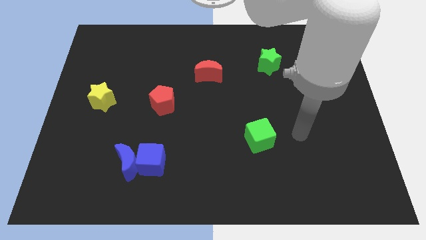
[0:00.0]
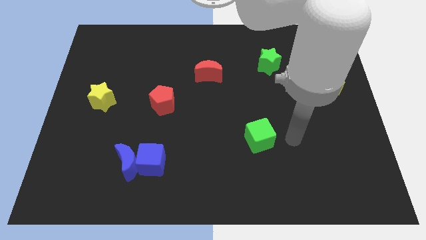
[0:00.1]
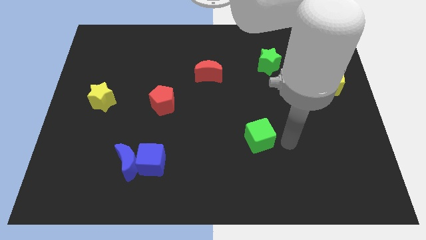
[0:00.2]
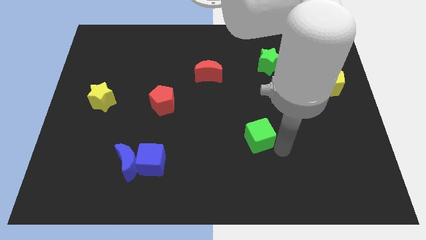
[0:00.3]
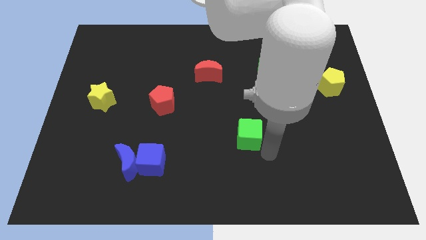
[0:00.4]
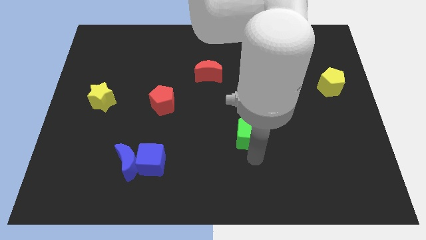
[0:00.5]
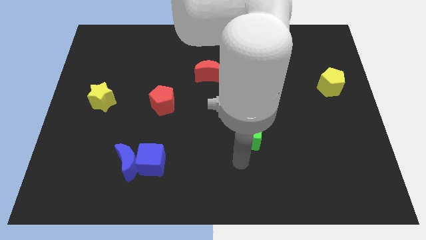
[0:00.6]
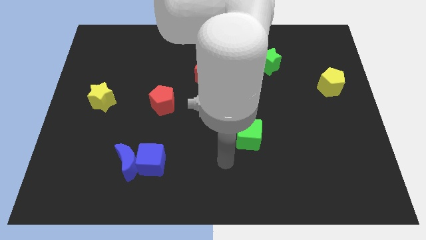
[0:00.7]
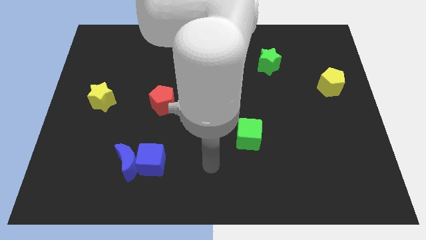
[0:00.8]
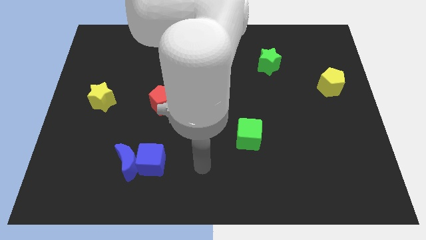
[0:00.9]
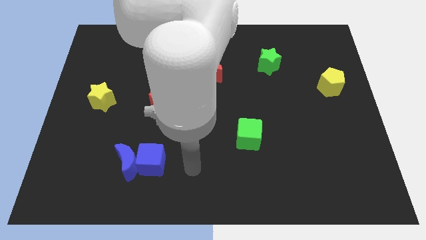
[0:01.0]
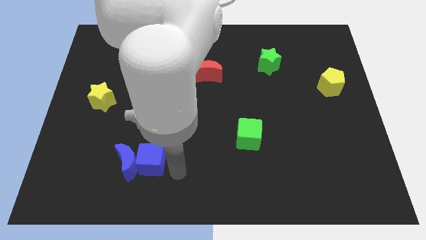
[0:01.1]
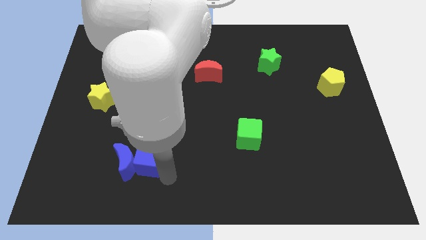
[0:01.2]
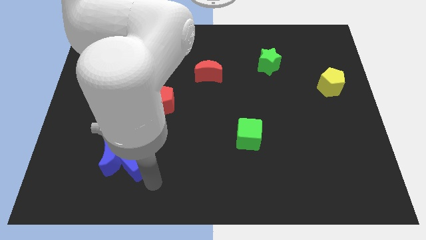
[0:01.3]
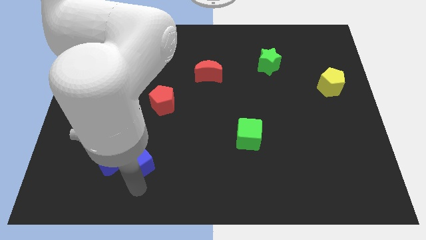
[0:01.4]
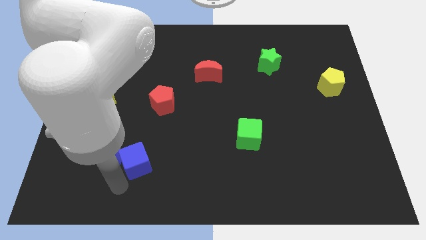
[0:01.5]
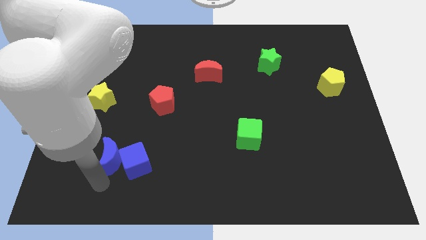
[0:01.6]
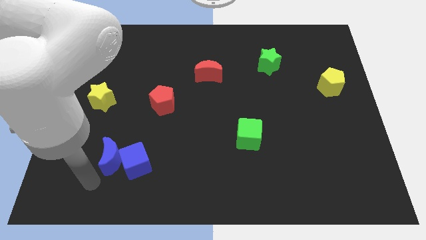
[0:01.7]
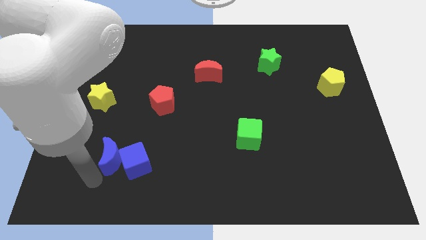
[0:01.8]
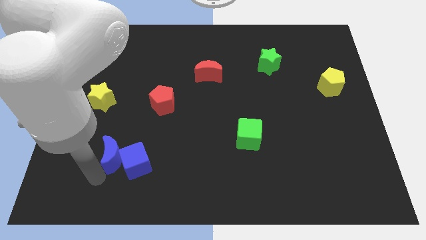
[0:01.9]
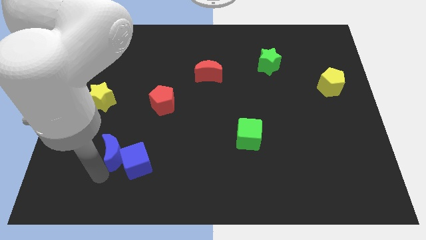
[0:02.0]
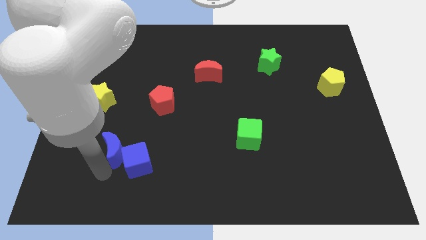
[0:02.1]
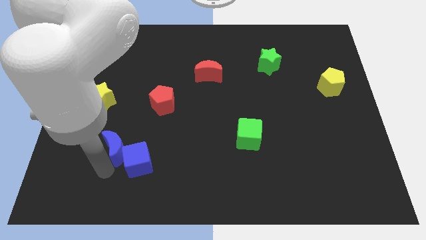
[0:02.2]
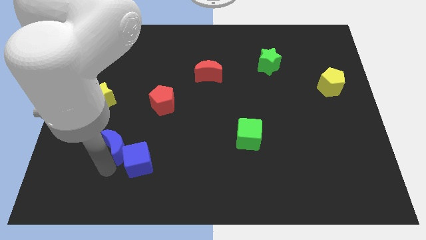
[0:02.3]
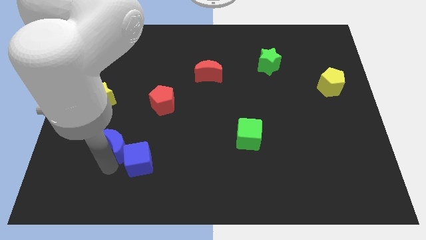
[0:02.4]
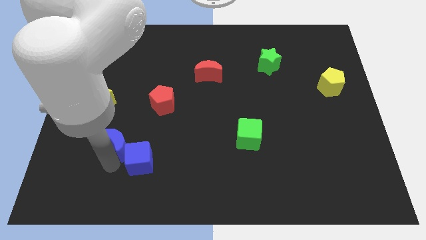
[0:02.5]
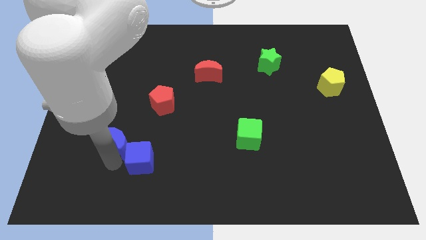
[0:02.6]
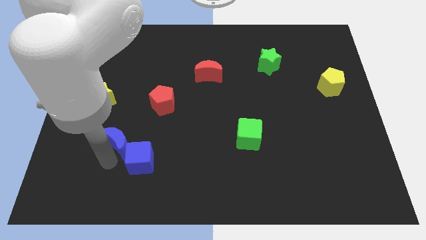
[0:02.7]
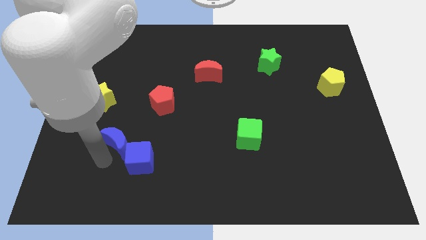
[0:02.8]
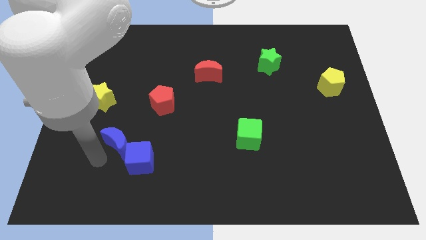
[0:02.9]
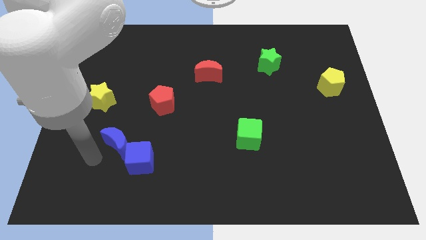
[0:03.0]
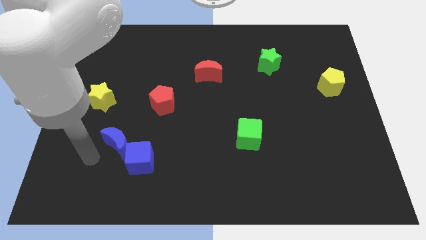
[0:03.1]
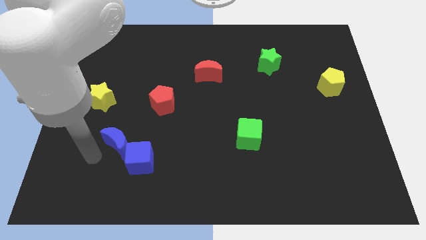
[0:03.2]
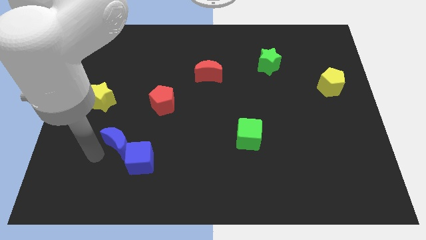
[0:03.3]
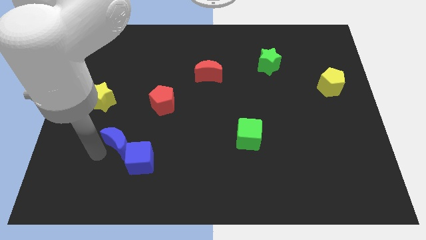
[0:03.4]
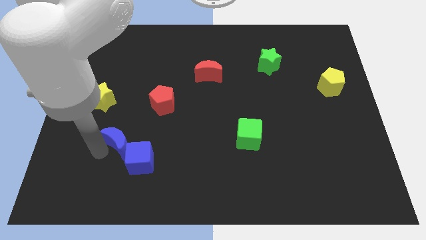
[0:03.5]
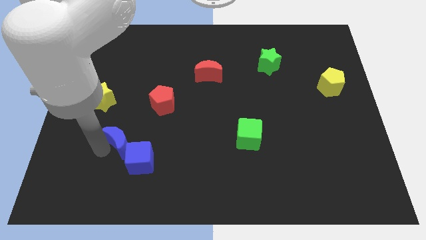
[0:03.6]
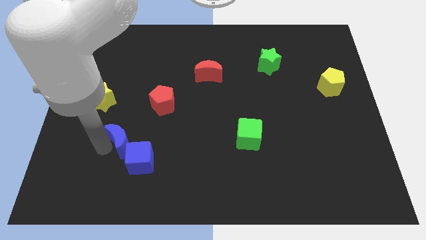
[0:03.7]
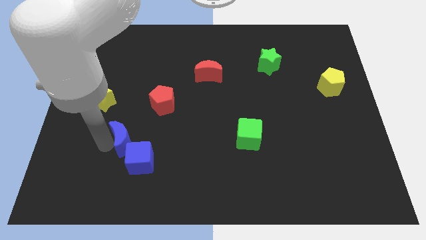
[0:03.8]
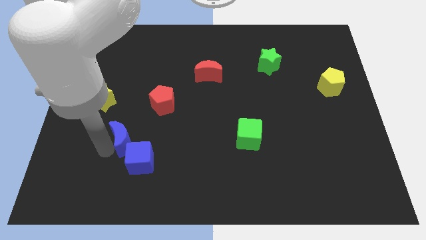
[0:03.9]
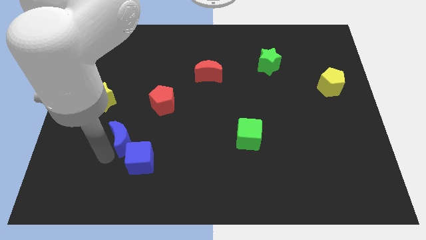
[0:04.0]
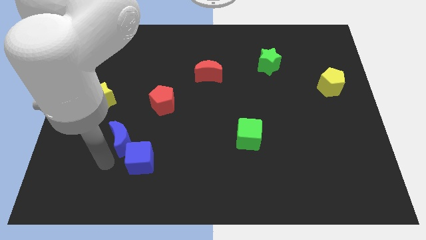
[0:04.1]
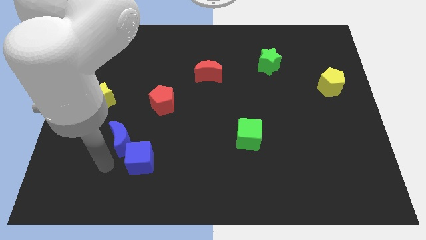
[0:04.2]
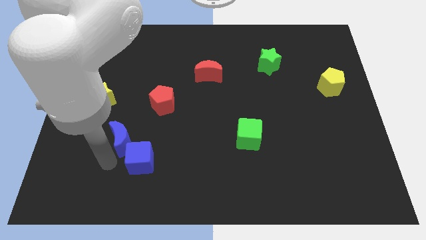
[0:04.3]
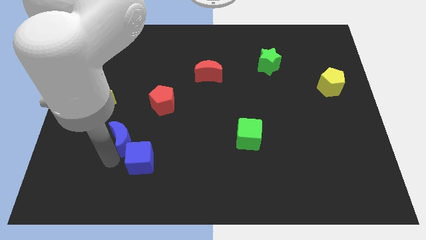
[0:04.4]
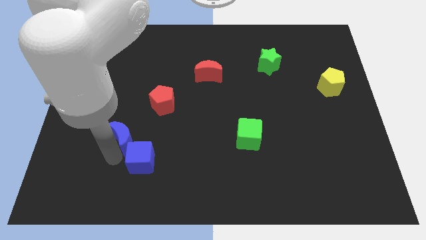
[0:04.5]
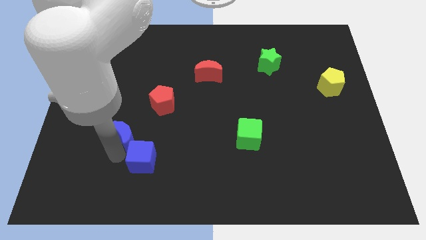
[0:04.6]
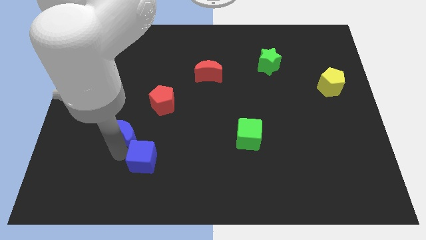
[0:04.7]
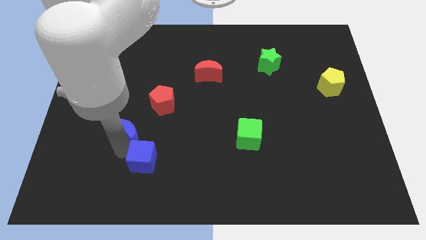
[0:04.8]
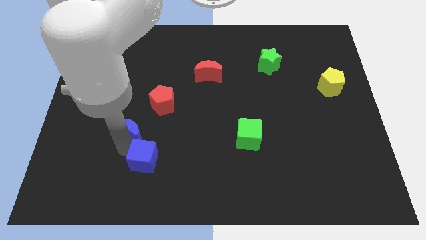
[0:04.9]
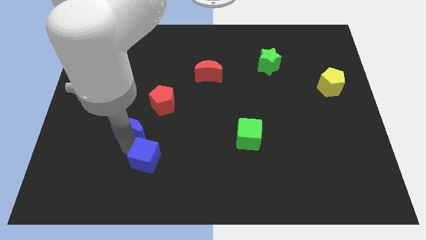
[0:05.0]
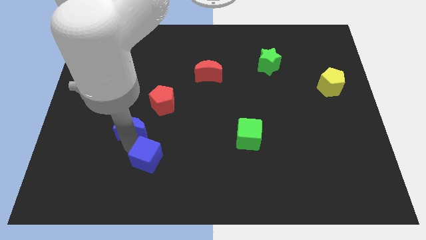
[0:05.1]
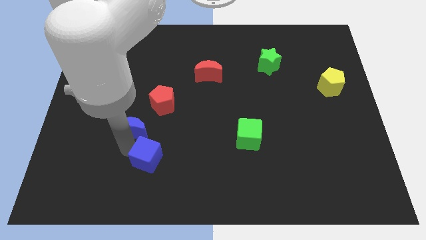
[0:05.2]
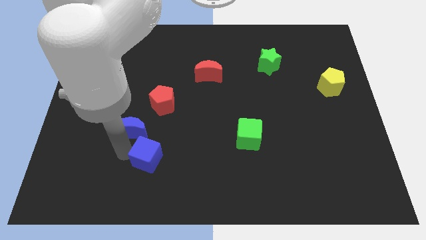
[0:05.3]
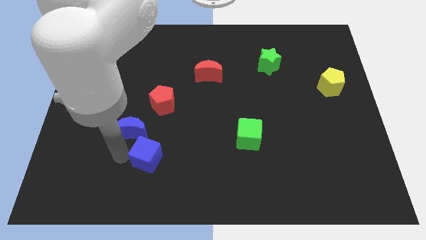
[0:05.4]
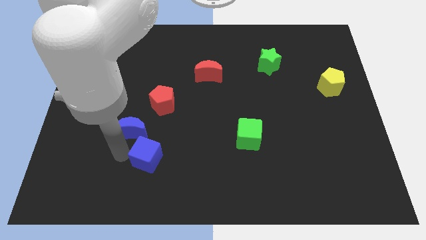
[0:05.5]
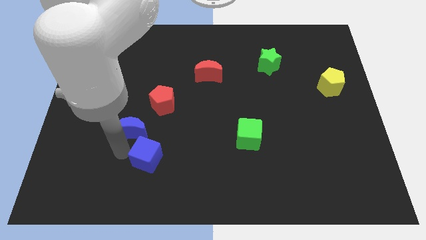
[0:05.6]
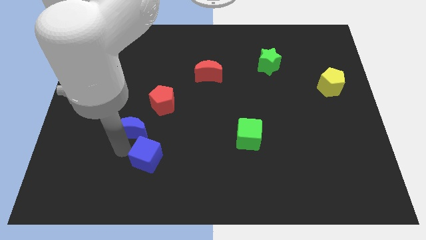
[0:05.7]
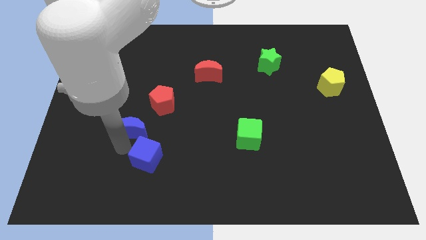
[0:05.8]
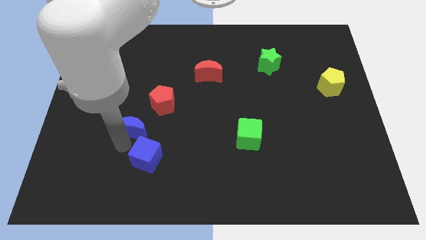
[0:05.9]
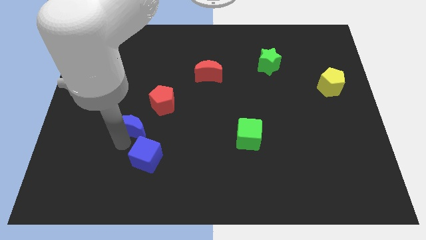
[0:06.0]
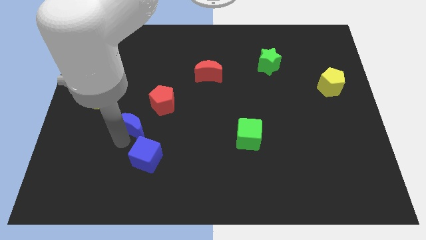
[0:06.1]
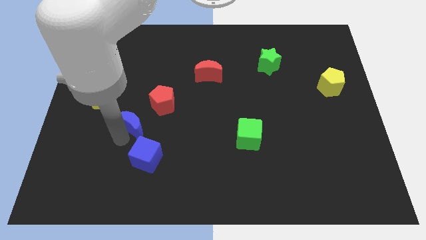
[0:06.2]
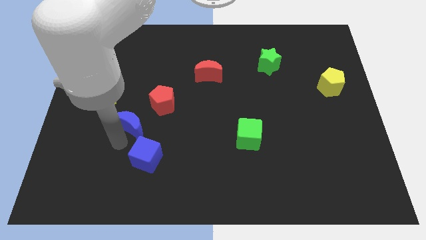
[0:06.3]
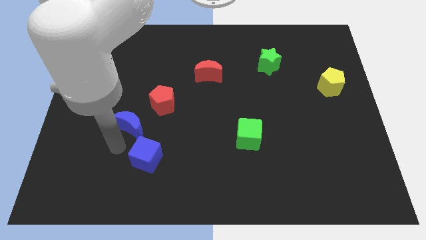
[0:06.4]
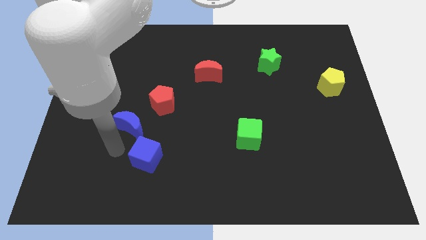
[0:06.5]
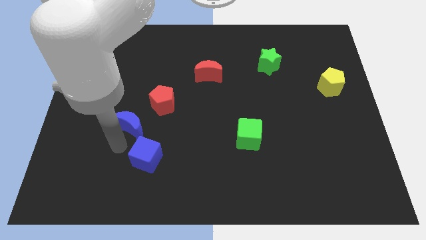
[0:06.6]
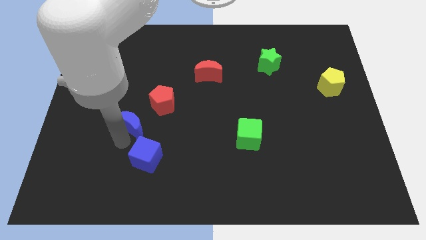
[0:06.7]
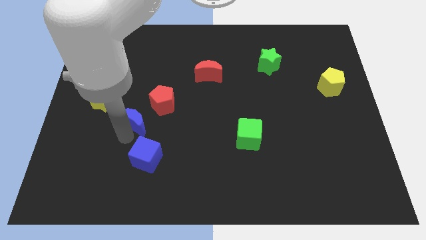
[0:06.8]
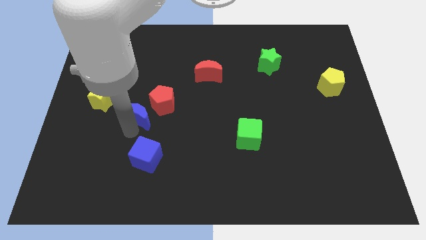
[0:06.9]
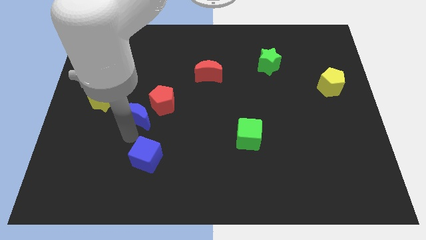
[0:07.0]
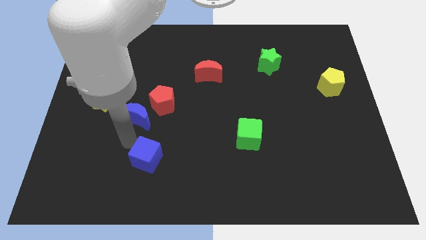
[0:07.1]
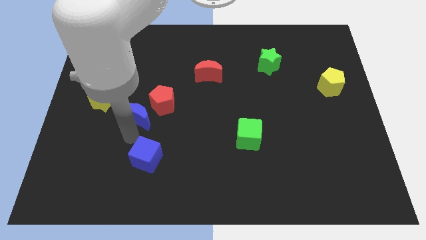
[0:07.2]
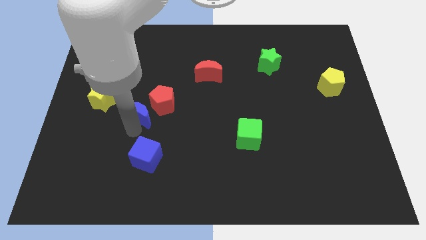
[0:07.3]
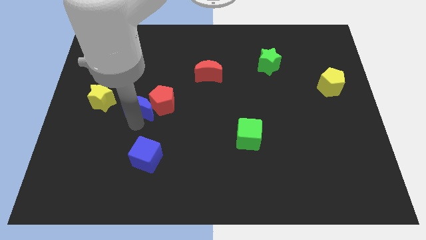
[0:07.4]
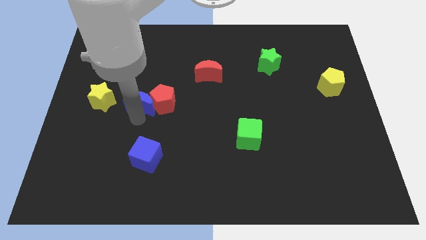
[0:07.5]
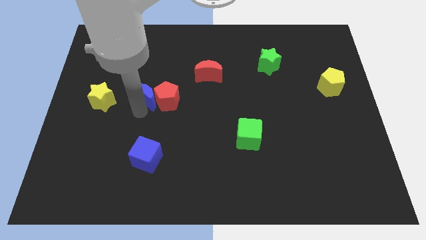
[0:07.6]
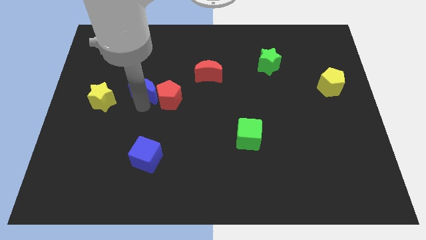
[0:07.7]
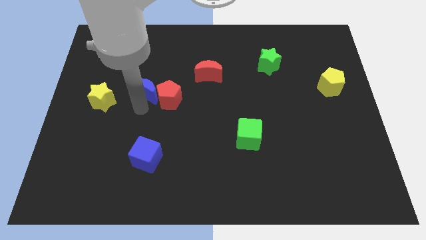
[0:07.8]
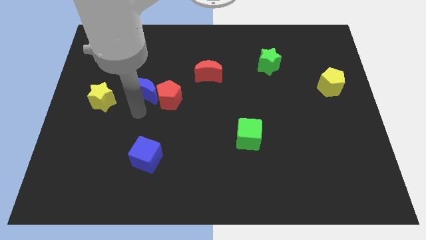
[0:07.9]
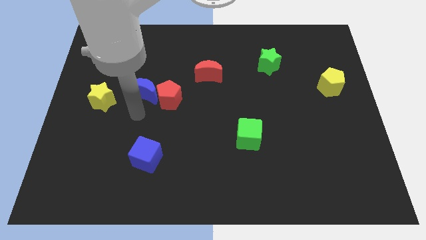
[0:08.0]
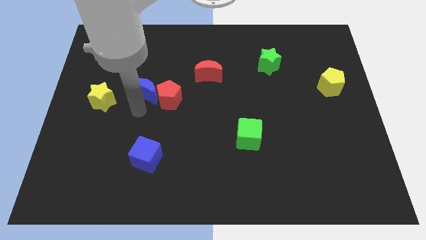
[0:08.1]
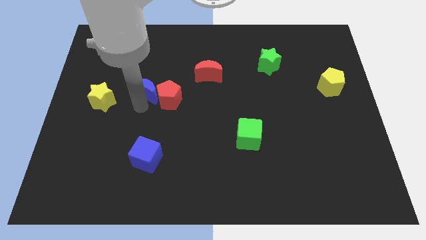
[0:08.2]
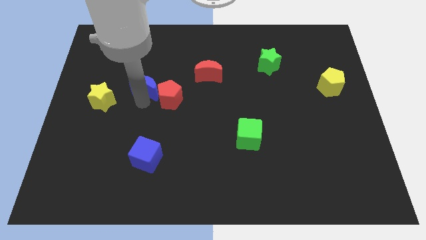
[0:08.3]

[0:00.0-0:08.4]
slide the blue moon up
